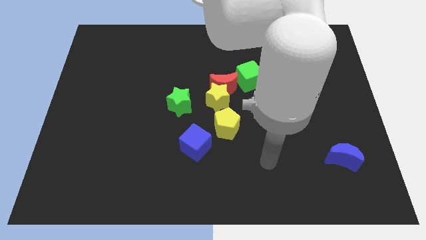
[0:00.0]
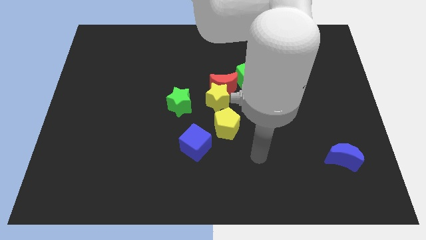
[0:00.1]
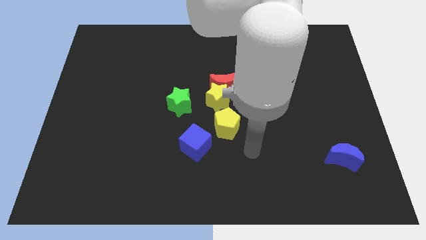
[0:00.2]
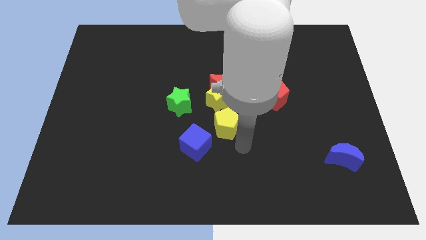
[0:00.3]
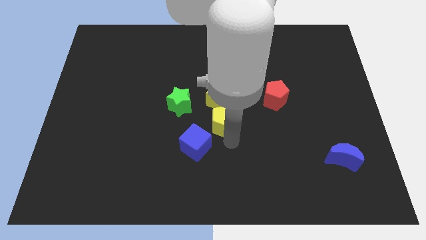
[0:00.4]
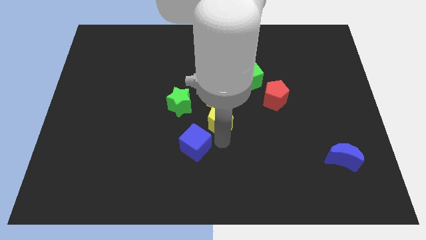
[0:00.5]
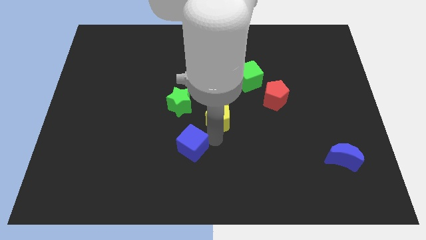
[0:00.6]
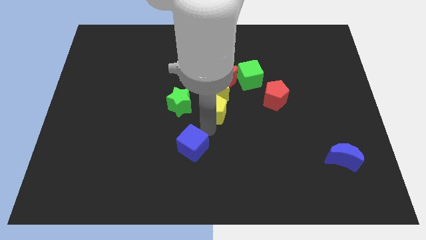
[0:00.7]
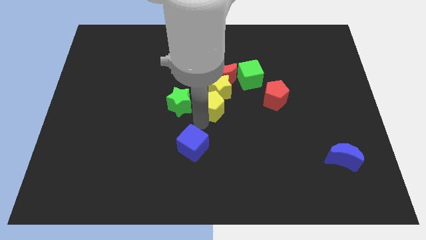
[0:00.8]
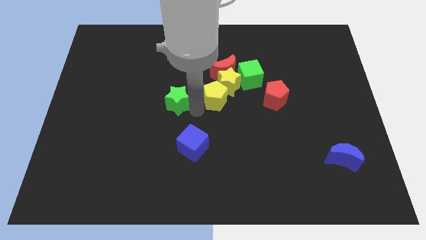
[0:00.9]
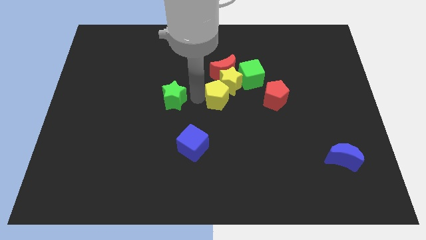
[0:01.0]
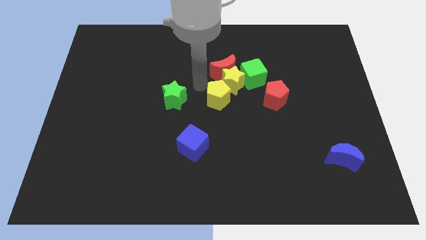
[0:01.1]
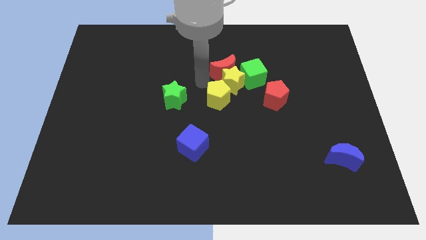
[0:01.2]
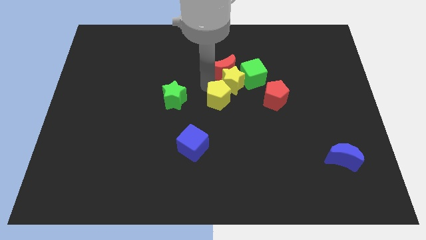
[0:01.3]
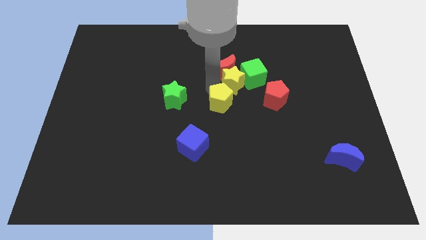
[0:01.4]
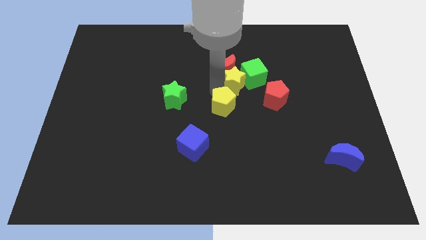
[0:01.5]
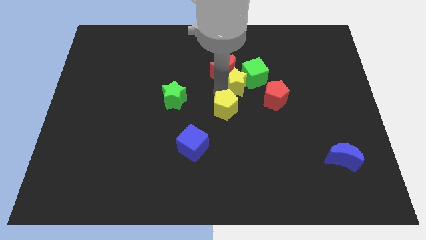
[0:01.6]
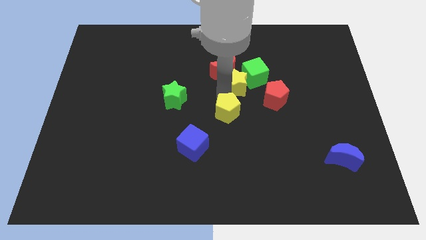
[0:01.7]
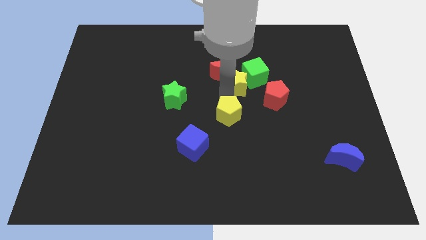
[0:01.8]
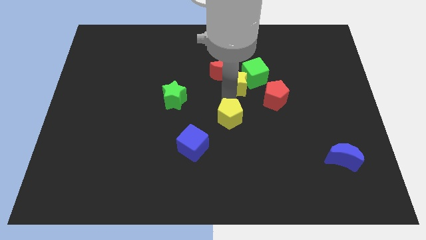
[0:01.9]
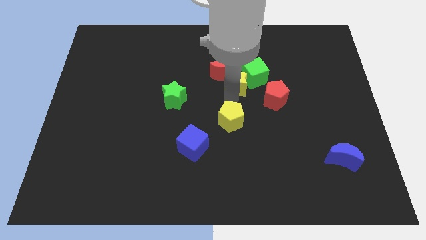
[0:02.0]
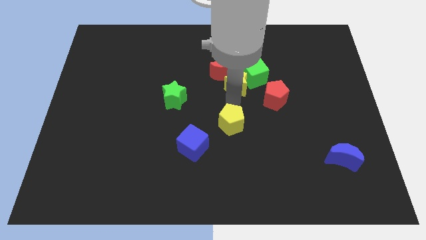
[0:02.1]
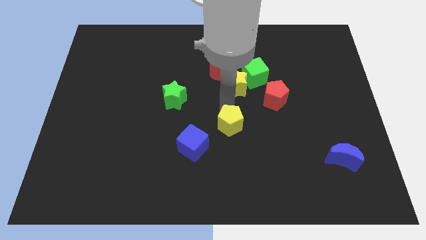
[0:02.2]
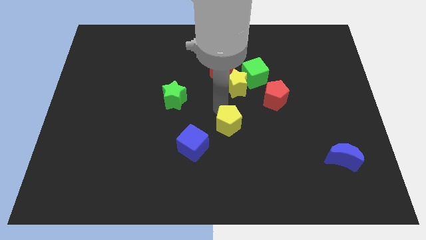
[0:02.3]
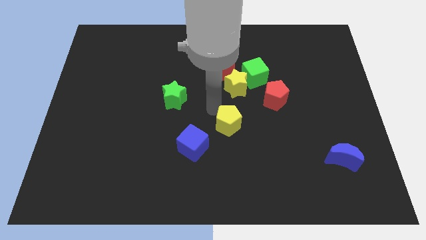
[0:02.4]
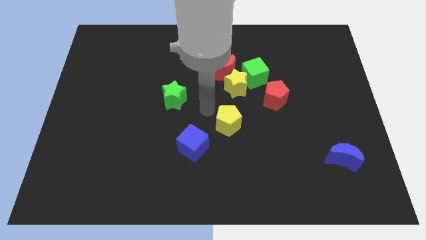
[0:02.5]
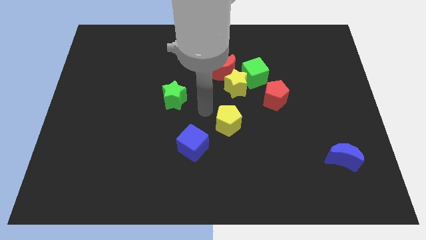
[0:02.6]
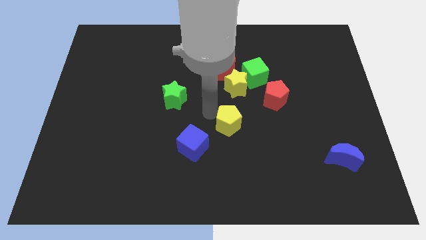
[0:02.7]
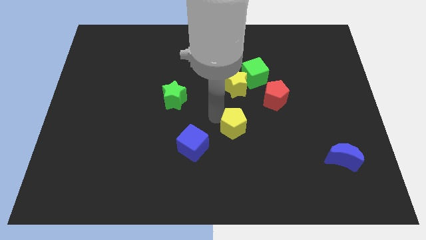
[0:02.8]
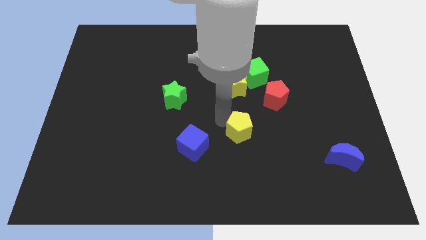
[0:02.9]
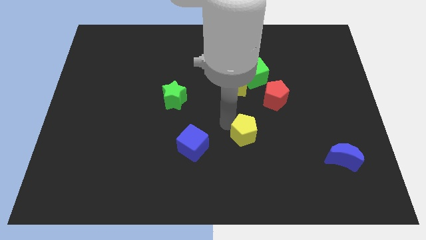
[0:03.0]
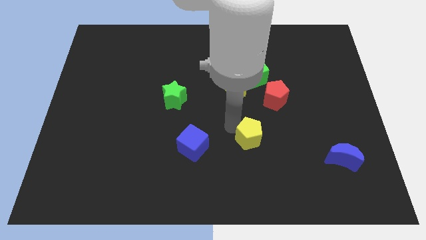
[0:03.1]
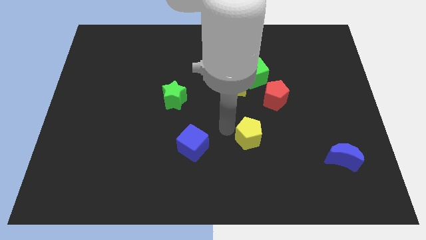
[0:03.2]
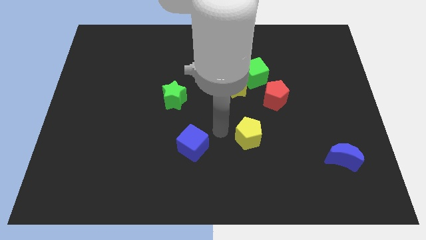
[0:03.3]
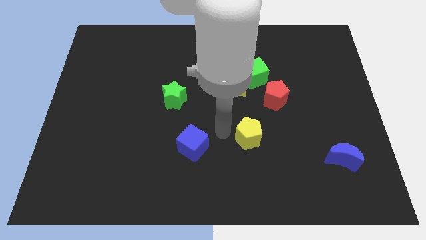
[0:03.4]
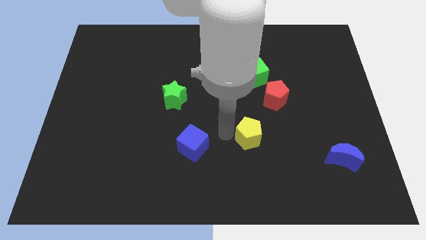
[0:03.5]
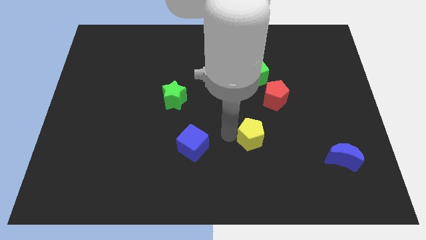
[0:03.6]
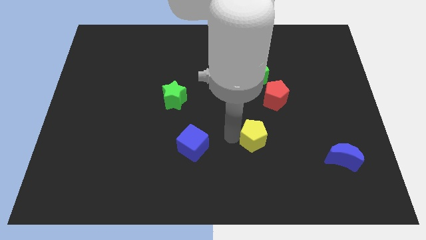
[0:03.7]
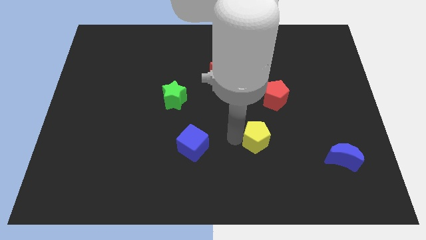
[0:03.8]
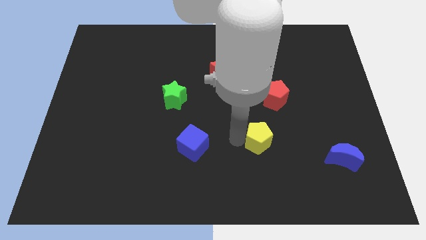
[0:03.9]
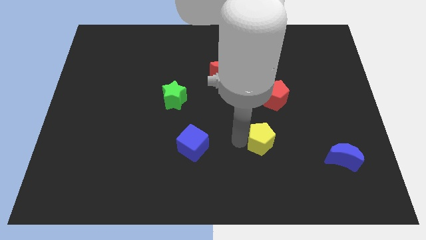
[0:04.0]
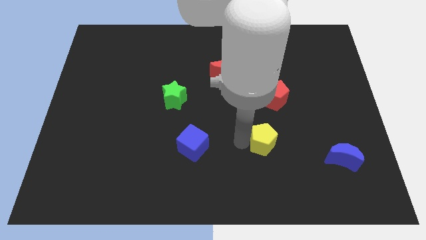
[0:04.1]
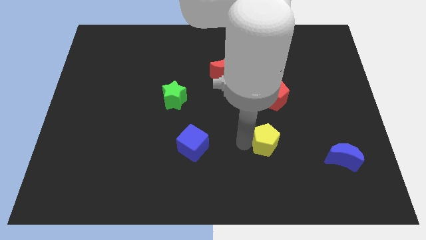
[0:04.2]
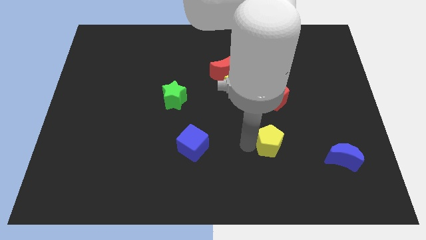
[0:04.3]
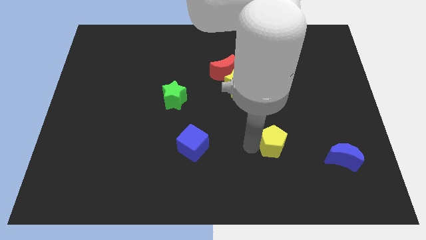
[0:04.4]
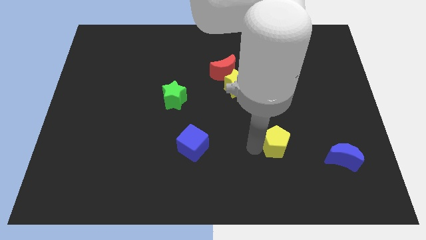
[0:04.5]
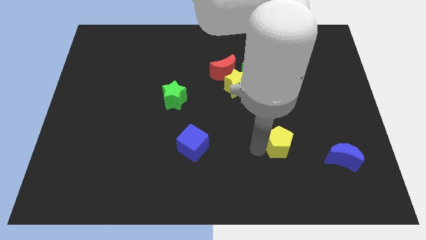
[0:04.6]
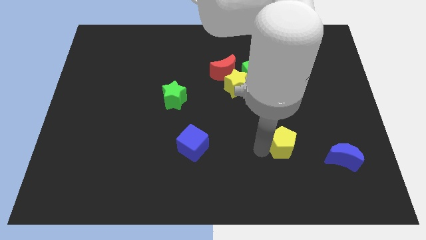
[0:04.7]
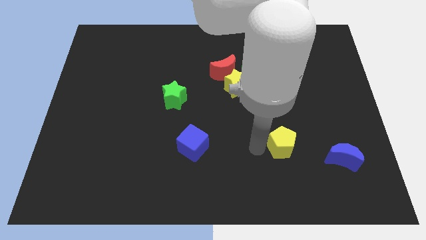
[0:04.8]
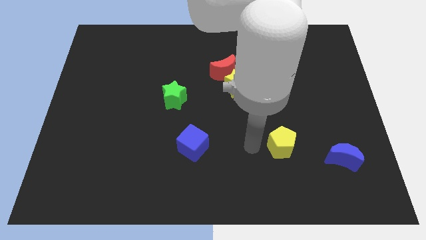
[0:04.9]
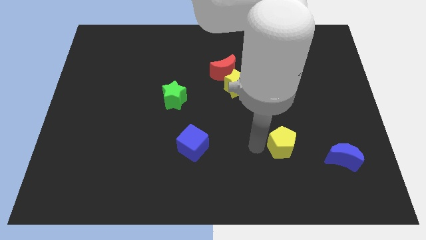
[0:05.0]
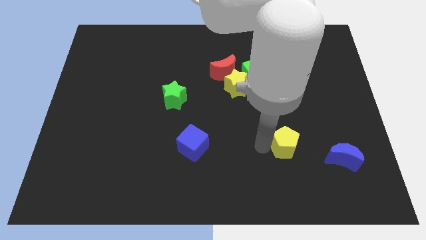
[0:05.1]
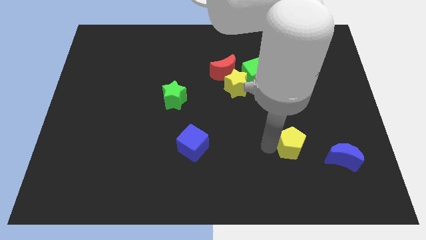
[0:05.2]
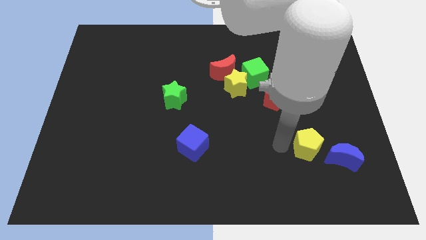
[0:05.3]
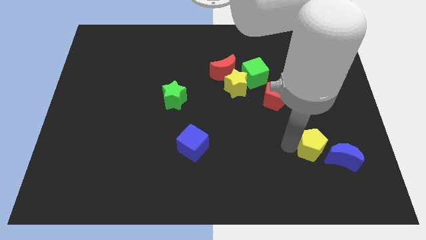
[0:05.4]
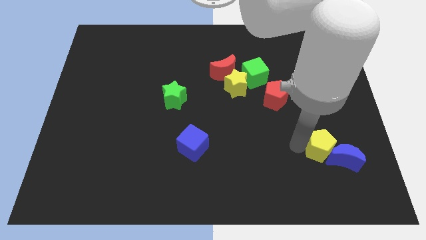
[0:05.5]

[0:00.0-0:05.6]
push the yellow pentagon towards the blue moon

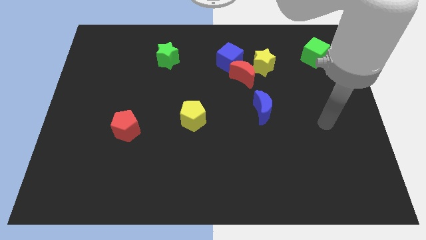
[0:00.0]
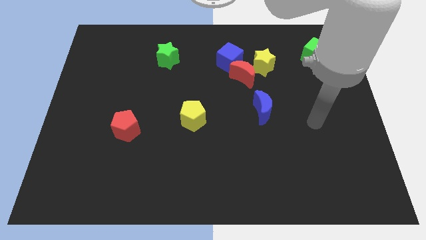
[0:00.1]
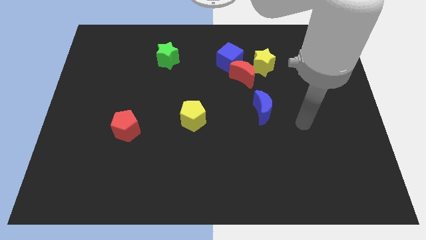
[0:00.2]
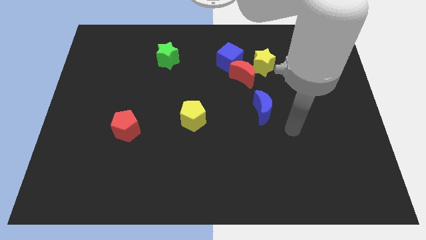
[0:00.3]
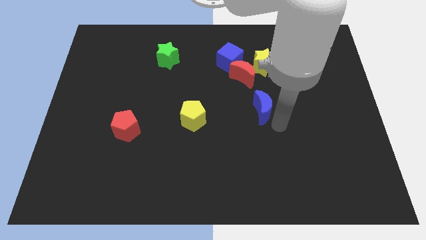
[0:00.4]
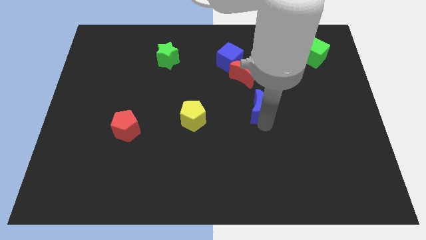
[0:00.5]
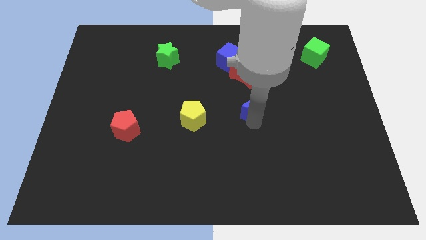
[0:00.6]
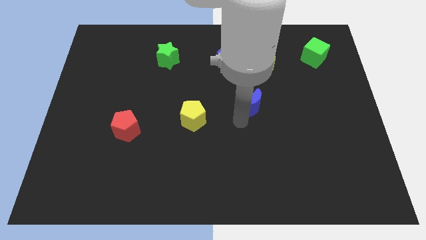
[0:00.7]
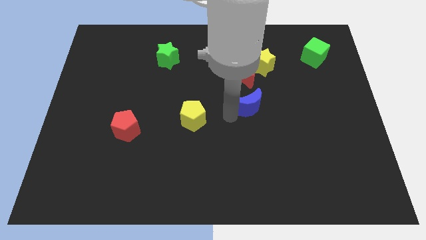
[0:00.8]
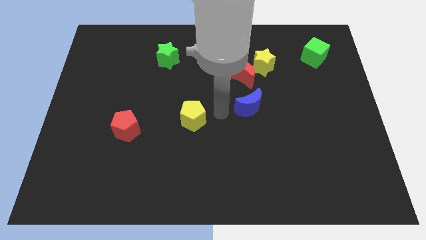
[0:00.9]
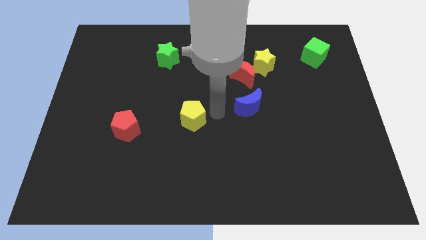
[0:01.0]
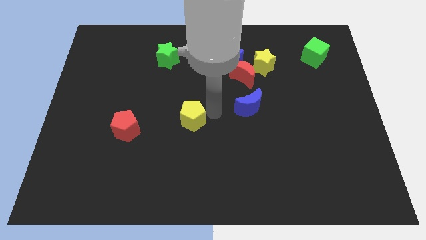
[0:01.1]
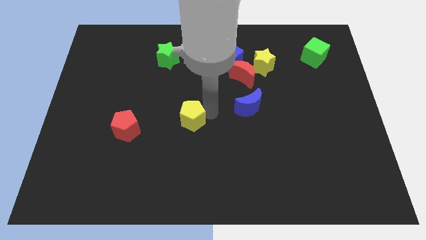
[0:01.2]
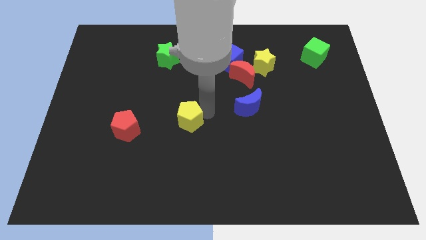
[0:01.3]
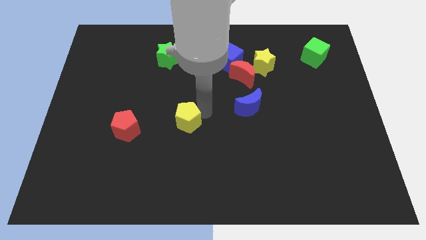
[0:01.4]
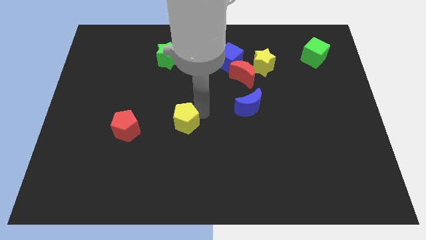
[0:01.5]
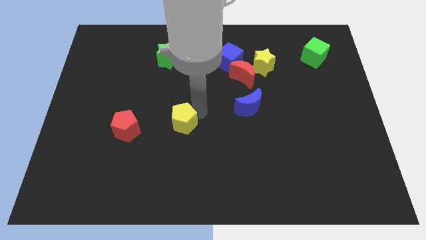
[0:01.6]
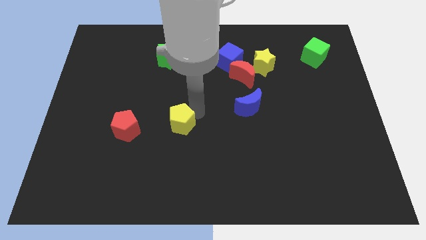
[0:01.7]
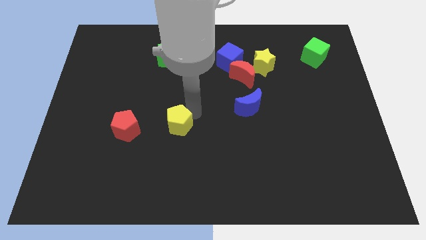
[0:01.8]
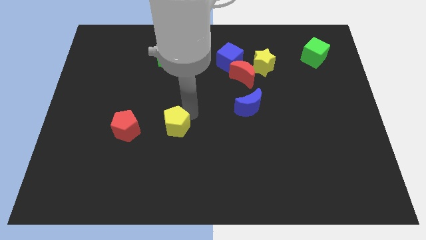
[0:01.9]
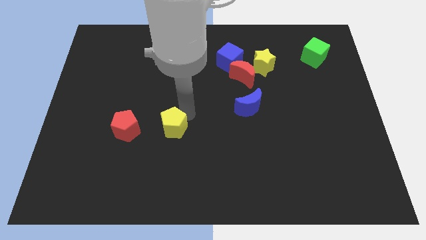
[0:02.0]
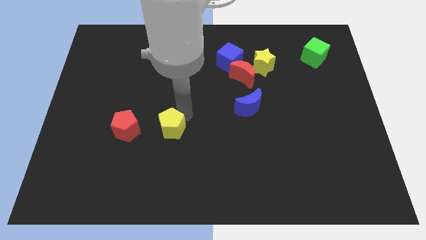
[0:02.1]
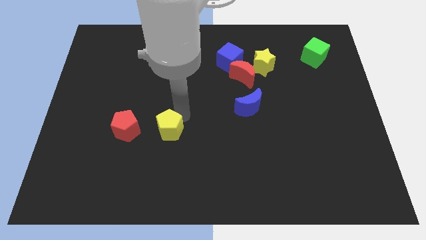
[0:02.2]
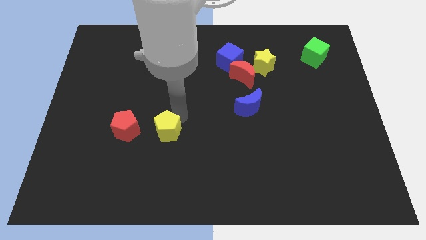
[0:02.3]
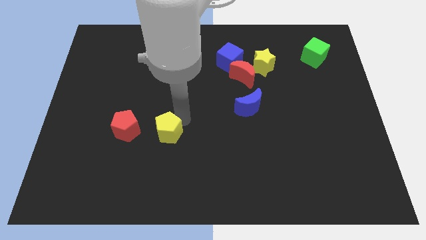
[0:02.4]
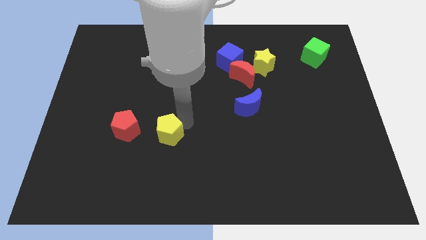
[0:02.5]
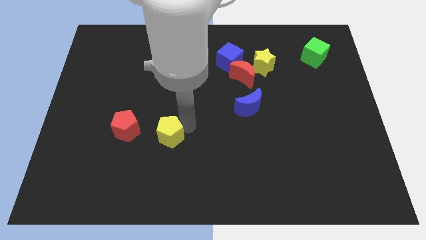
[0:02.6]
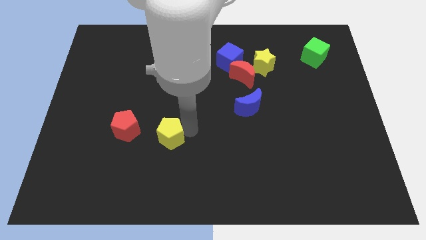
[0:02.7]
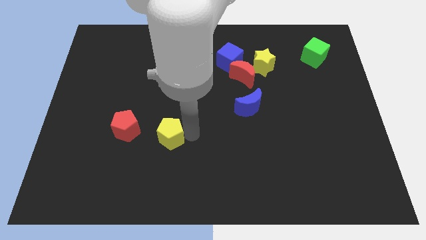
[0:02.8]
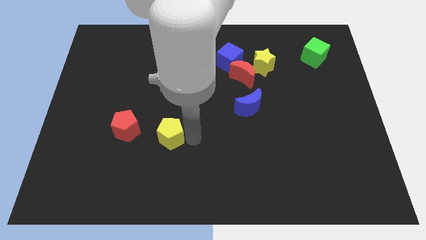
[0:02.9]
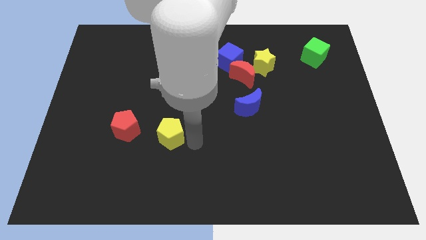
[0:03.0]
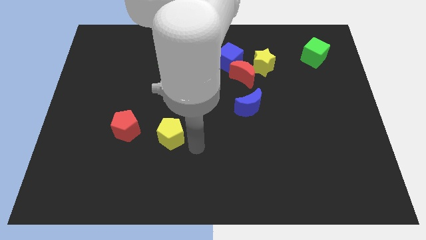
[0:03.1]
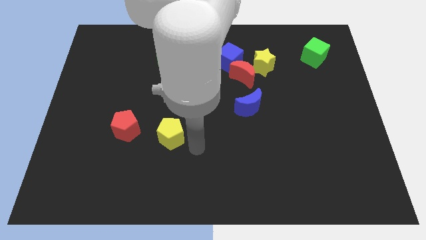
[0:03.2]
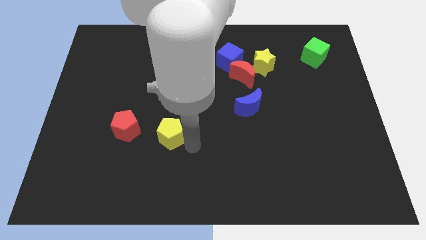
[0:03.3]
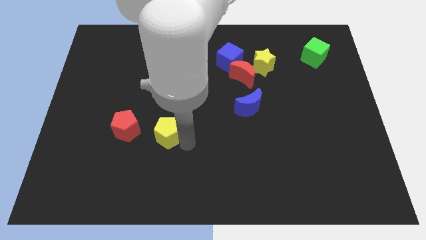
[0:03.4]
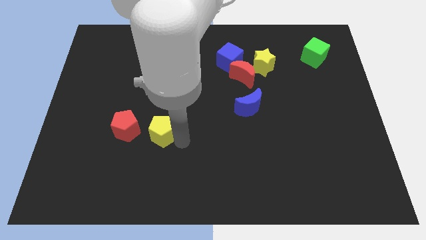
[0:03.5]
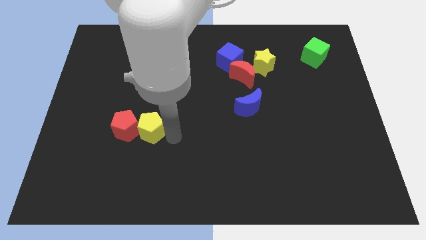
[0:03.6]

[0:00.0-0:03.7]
put the yellow pentagon towards the red pentagon
